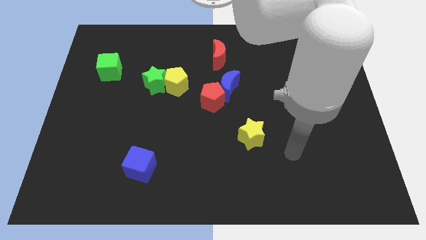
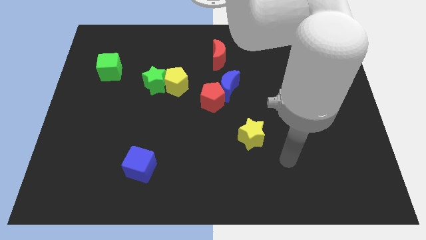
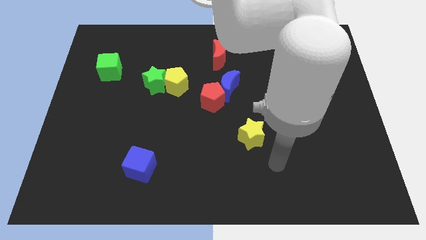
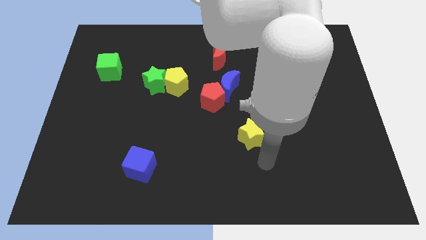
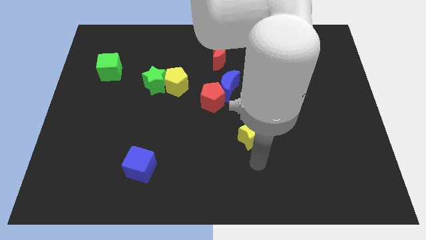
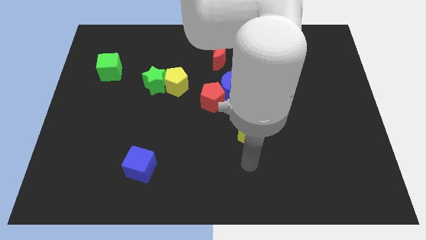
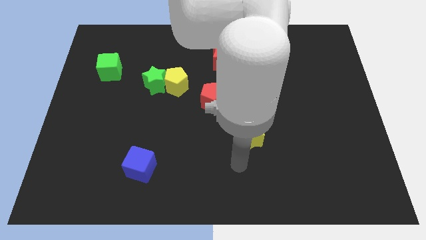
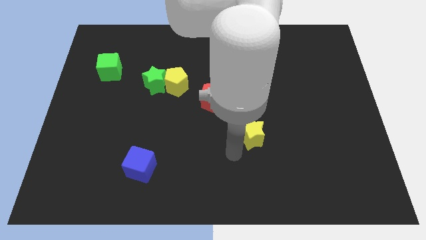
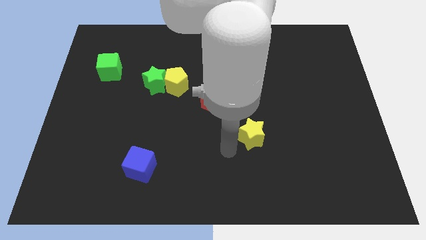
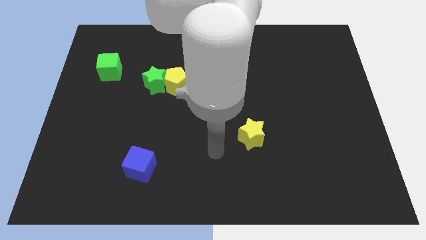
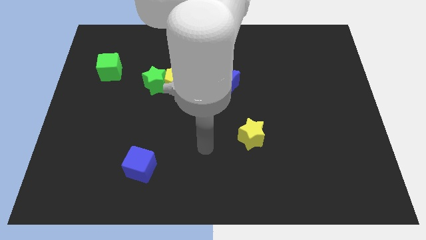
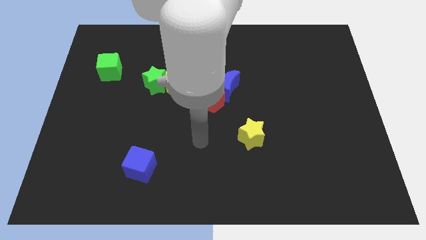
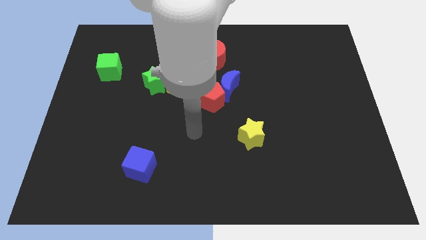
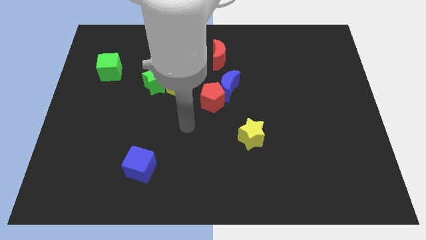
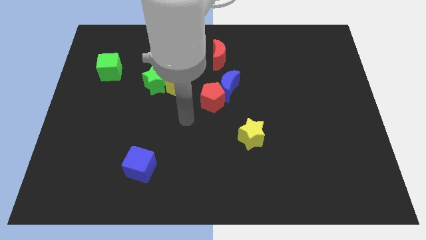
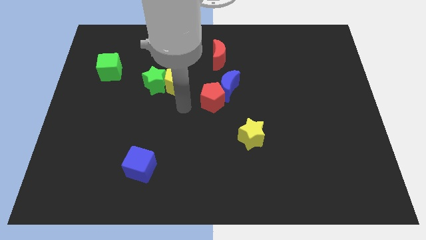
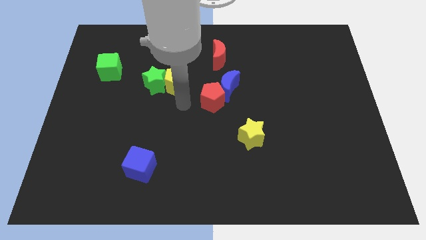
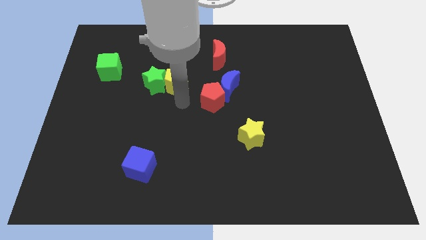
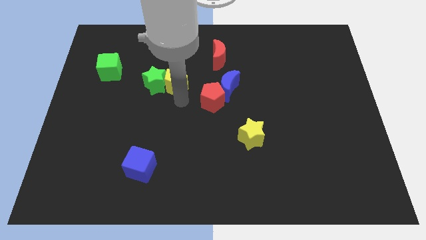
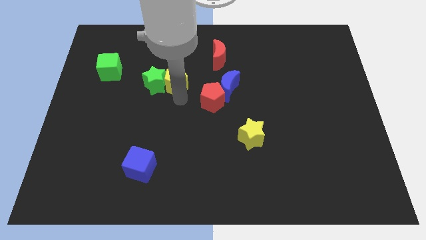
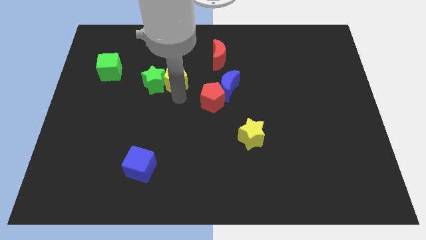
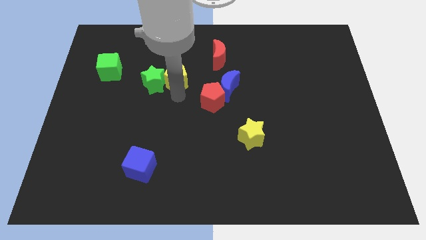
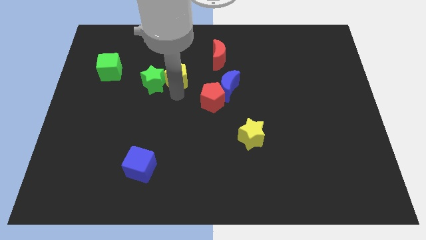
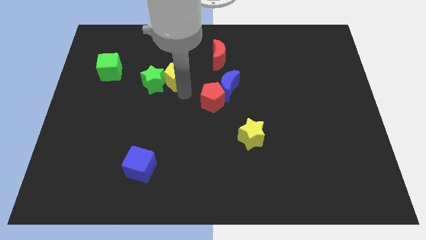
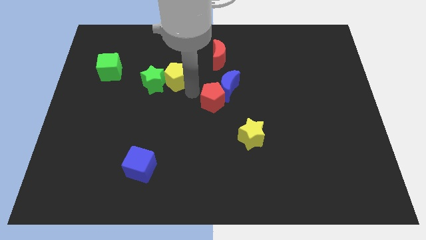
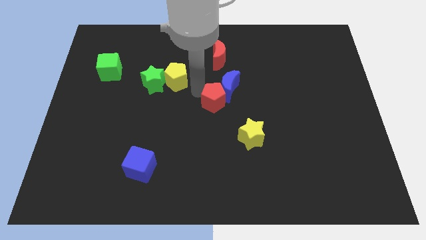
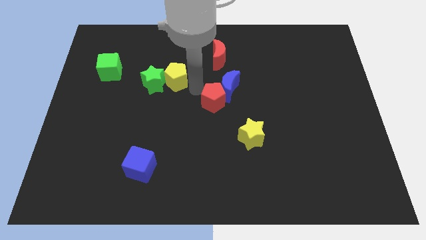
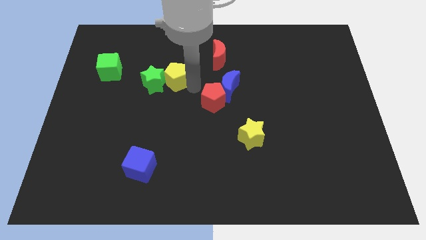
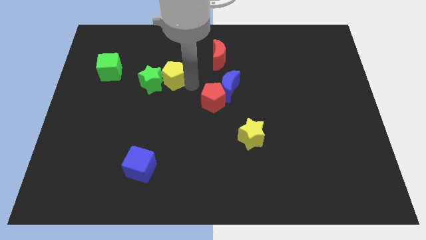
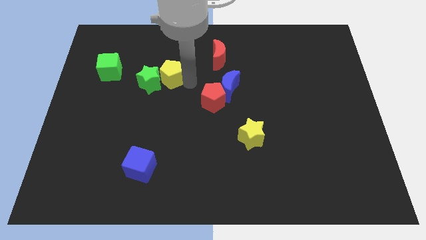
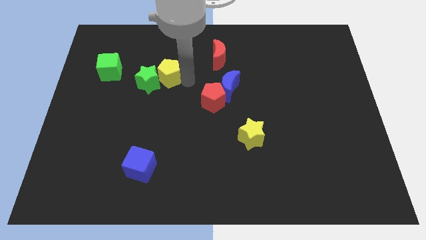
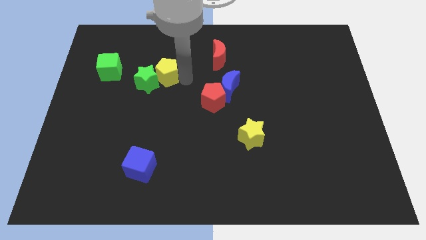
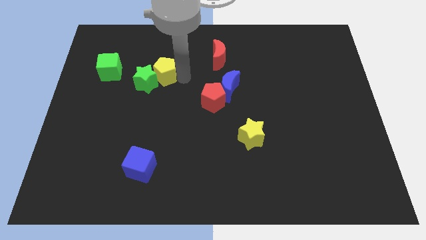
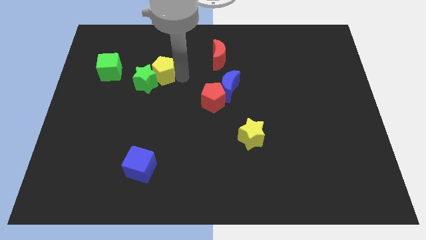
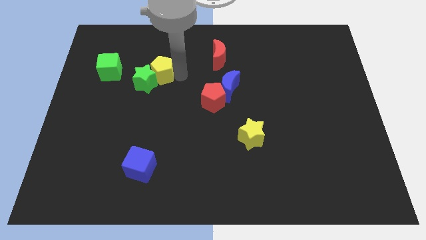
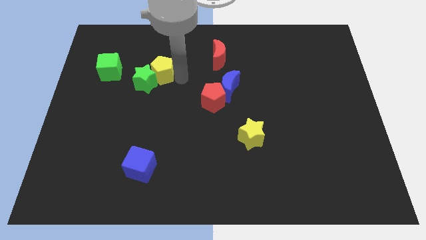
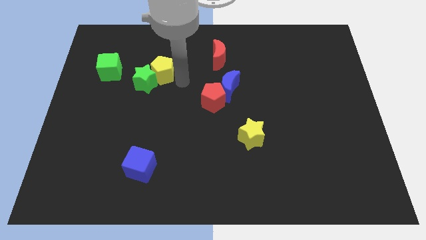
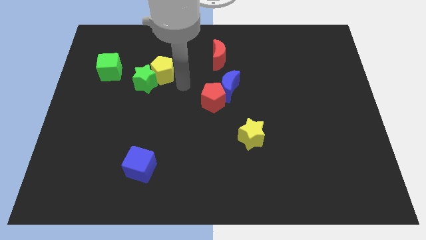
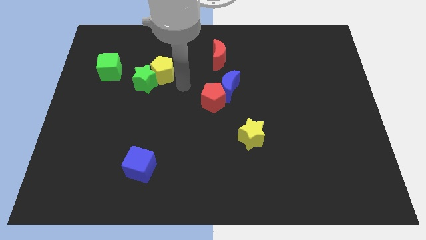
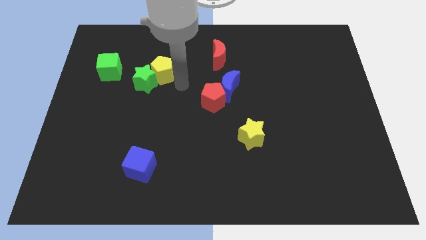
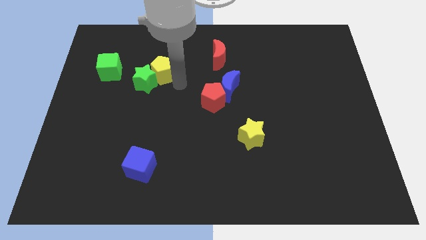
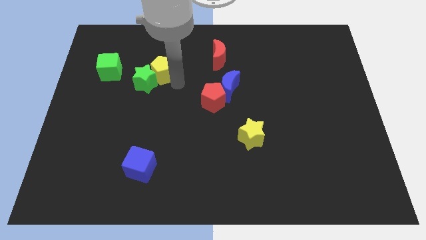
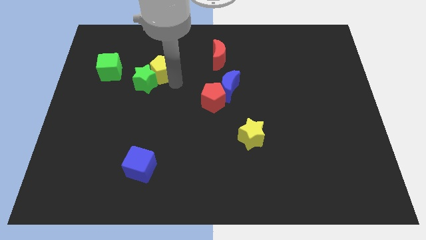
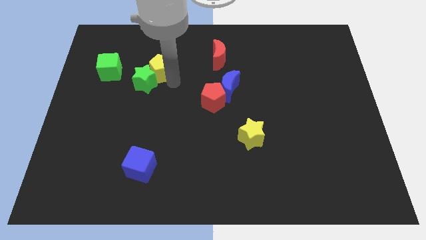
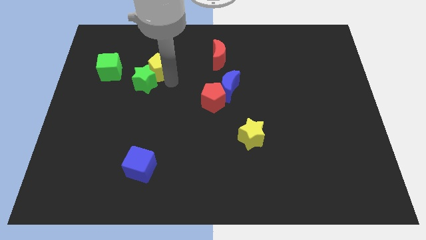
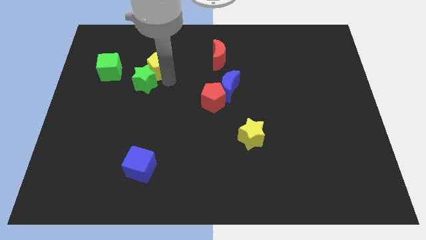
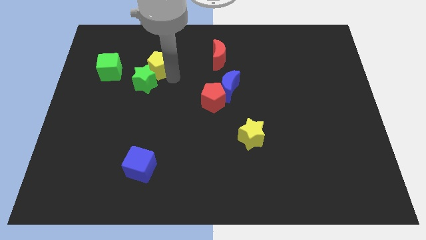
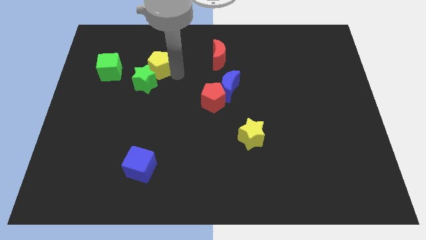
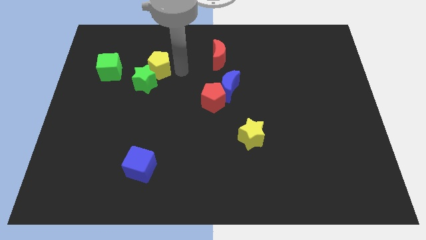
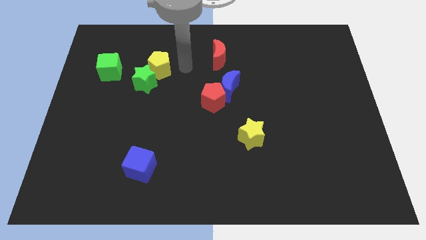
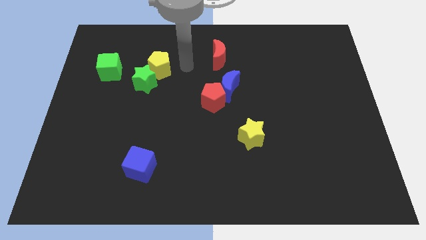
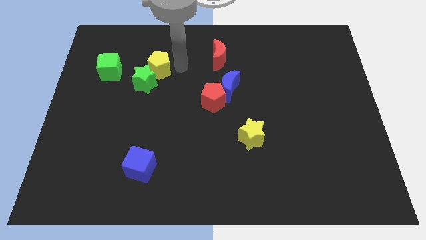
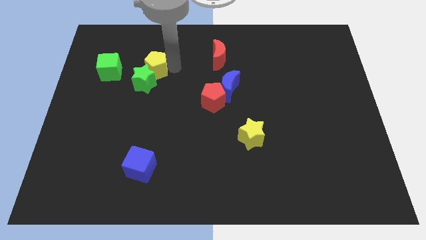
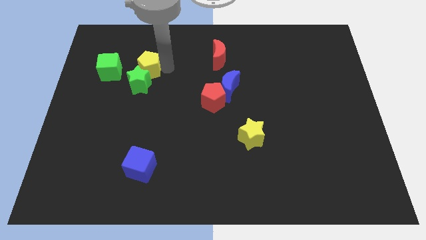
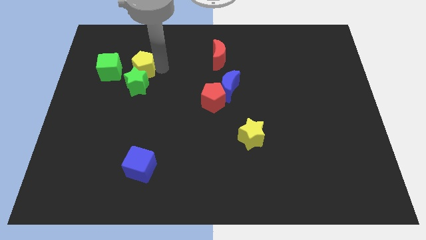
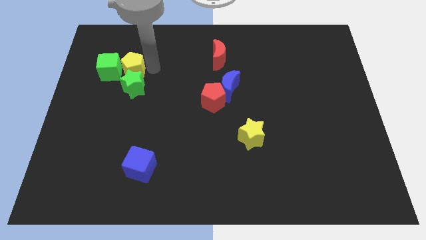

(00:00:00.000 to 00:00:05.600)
put the yellow pentagon close to the green cube

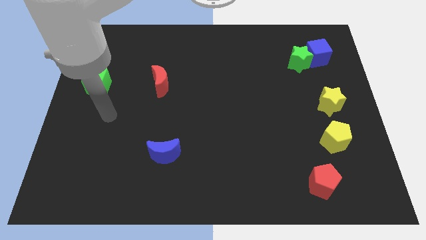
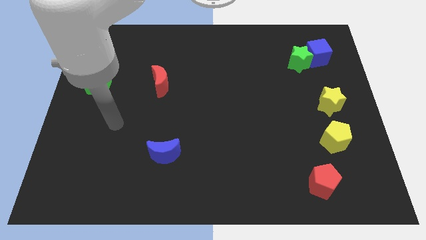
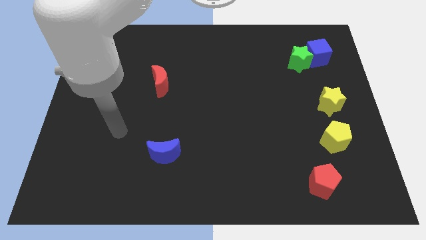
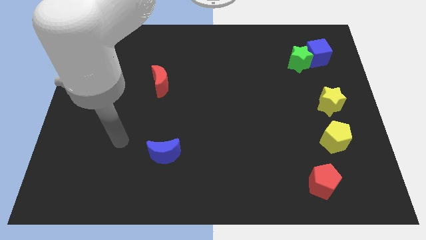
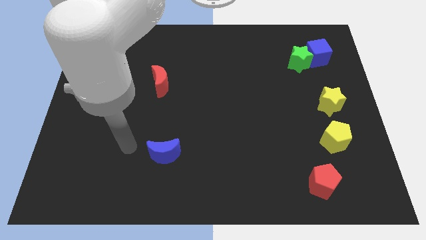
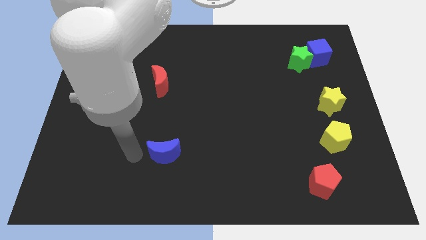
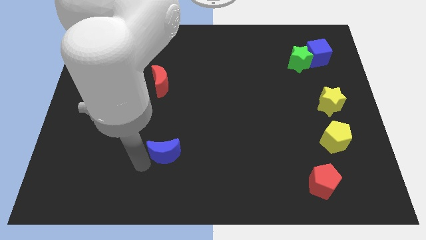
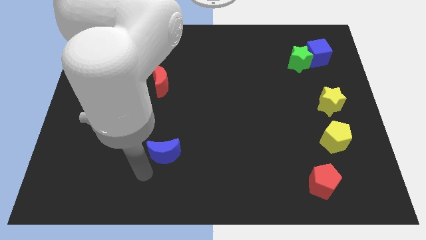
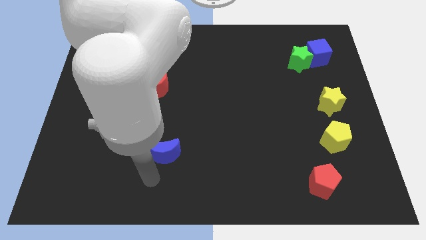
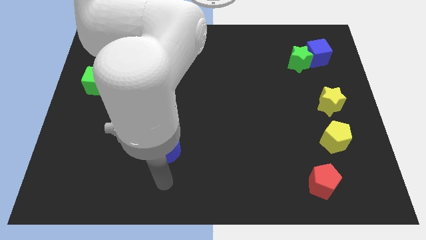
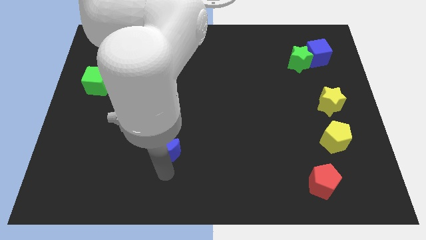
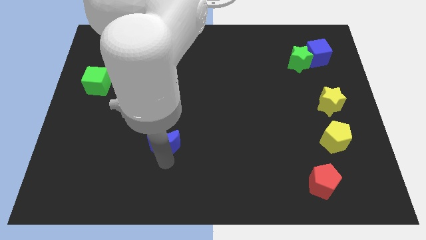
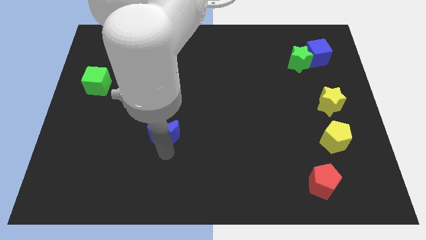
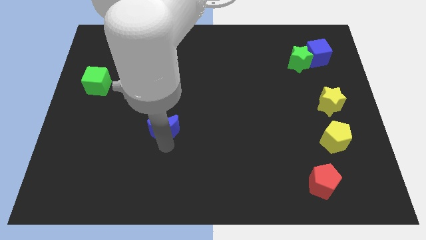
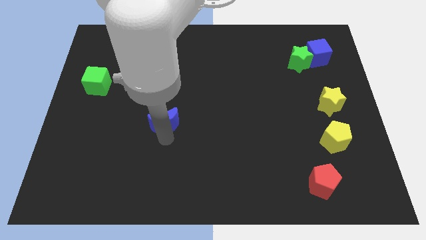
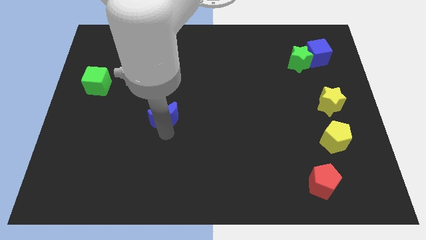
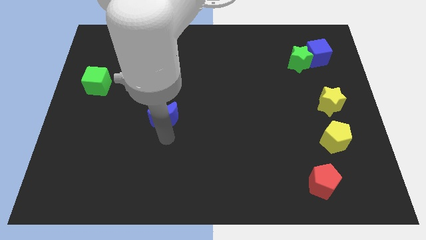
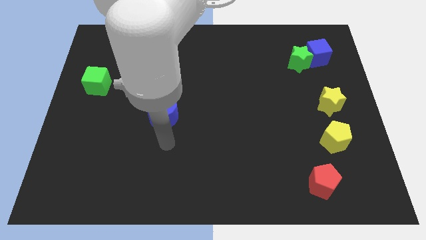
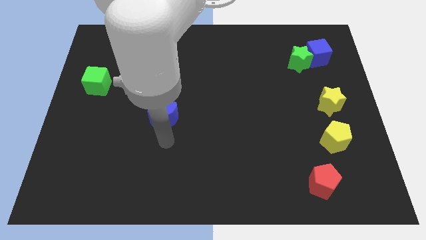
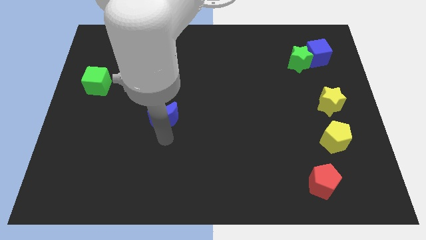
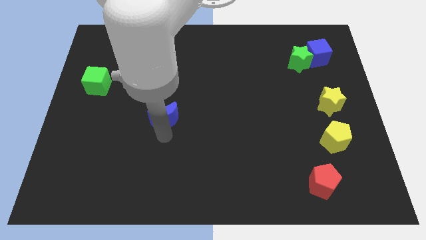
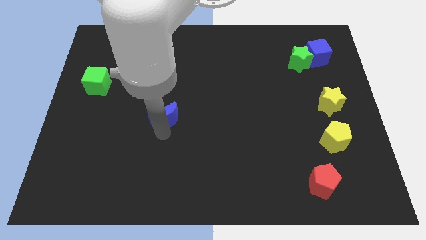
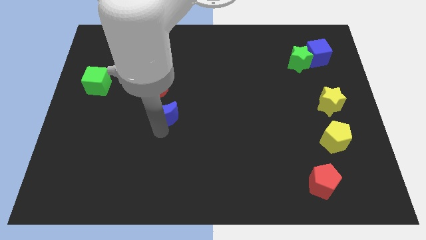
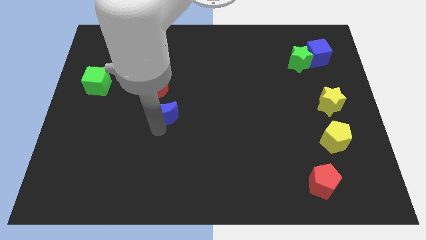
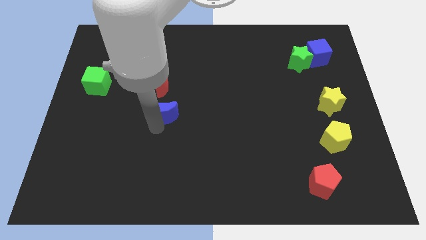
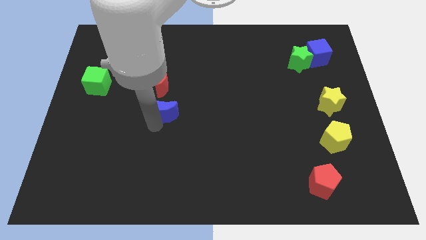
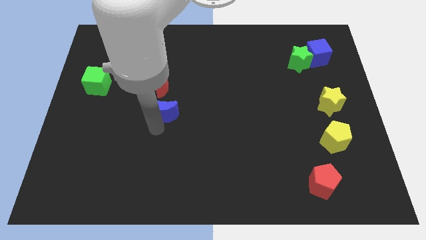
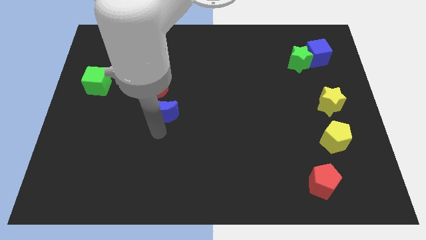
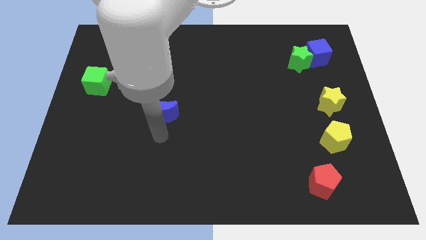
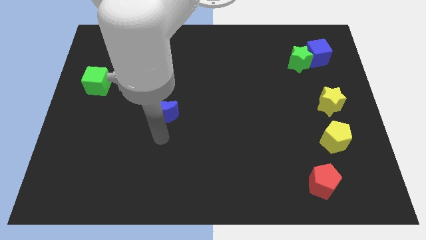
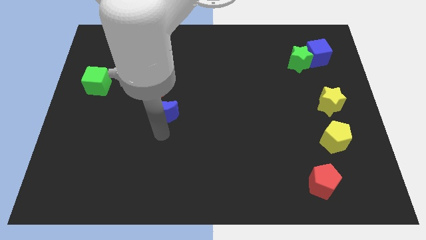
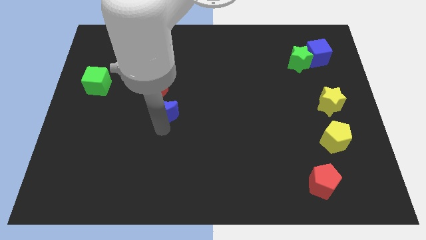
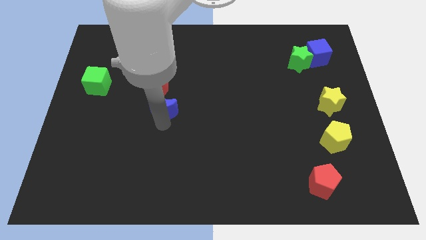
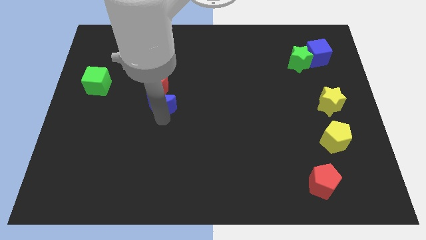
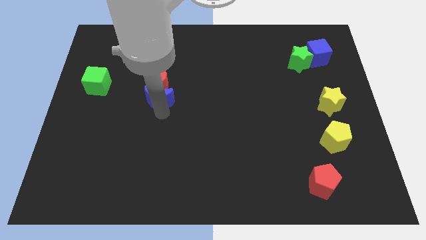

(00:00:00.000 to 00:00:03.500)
slide the blue moon to the red moon
